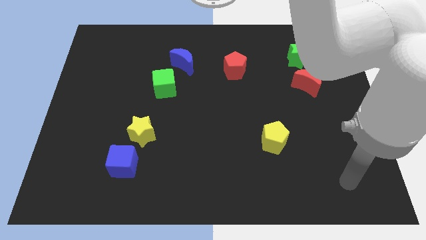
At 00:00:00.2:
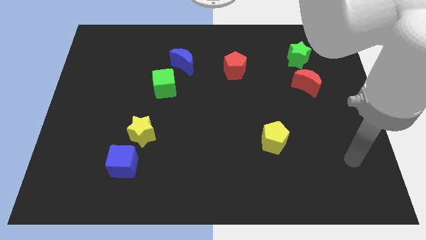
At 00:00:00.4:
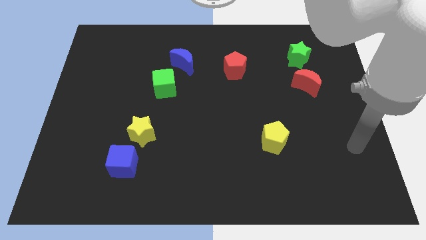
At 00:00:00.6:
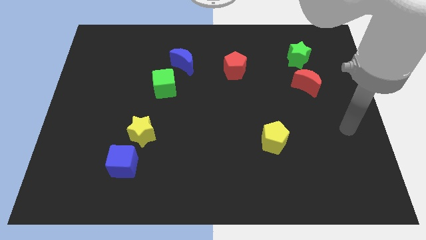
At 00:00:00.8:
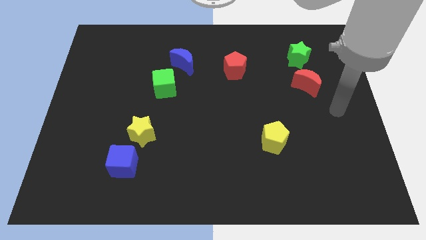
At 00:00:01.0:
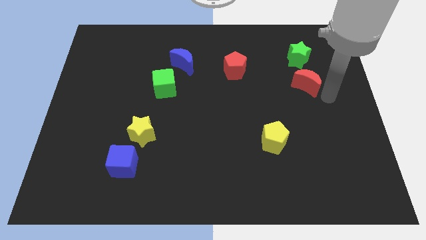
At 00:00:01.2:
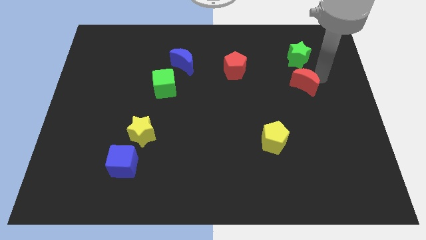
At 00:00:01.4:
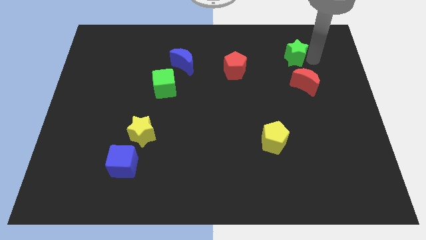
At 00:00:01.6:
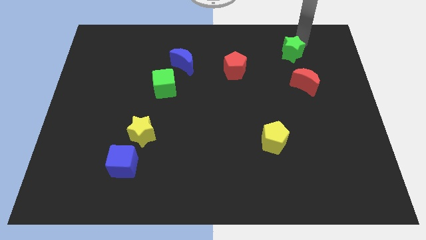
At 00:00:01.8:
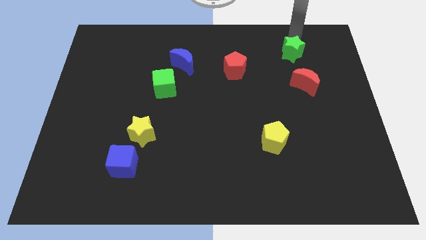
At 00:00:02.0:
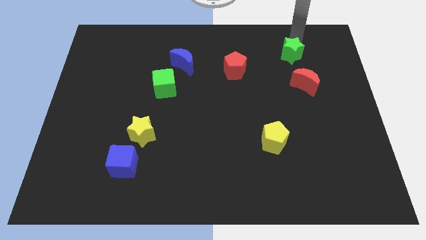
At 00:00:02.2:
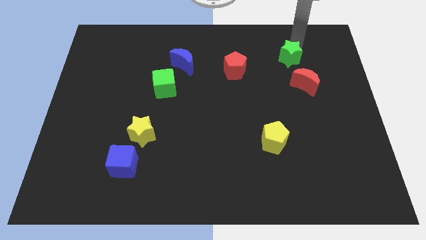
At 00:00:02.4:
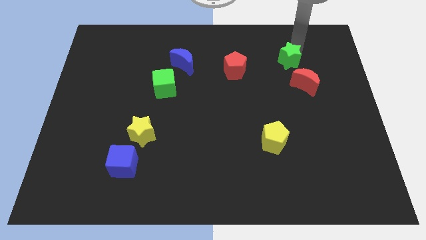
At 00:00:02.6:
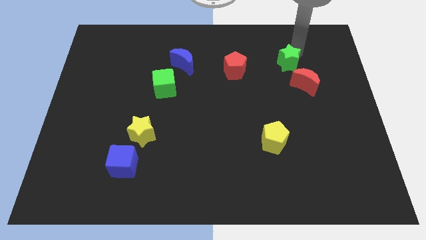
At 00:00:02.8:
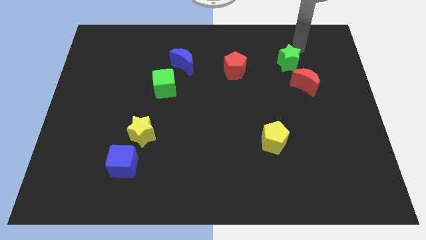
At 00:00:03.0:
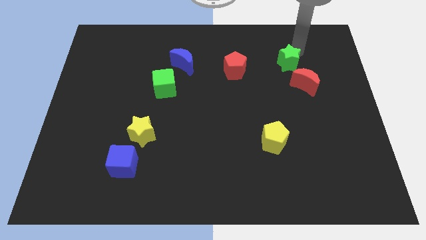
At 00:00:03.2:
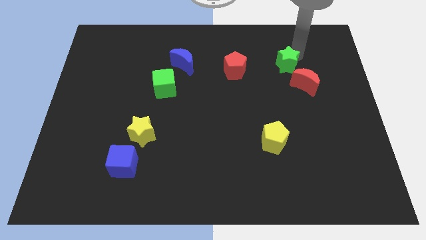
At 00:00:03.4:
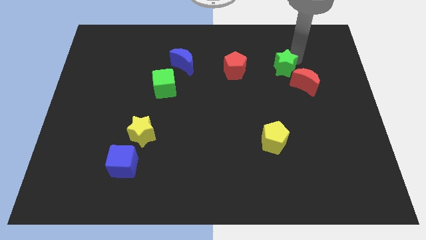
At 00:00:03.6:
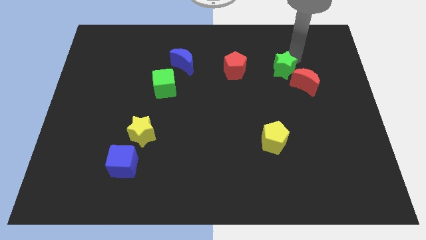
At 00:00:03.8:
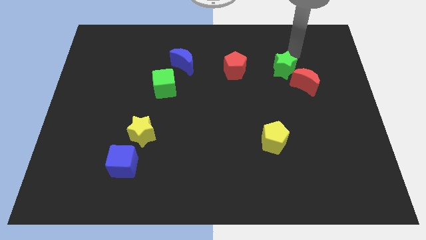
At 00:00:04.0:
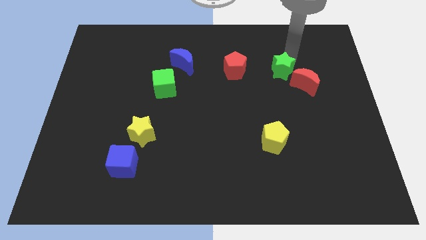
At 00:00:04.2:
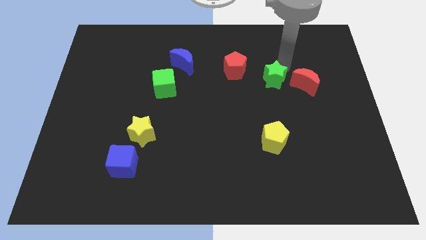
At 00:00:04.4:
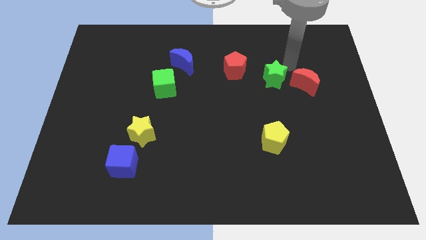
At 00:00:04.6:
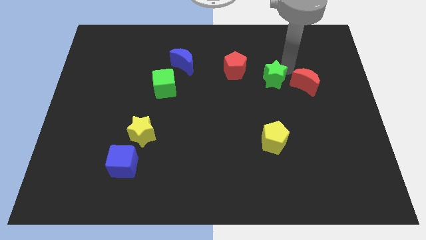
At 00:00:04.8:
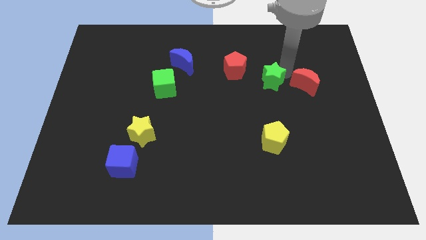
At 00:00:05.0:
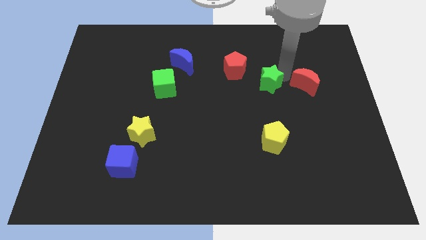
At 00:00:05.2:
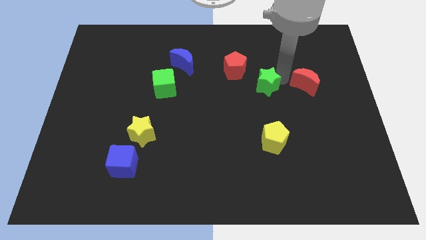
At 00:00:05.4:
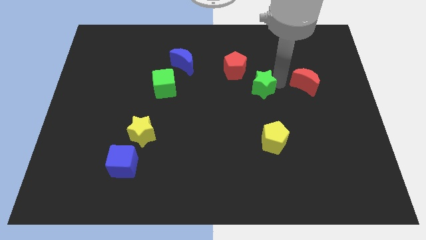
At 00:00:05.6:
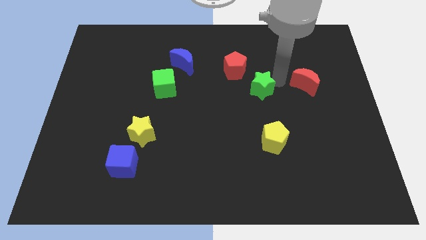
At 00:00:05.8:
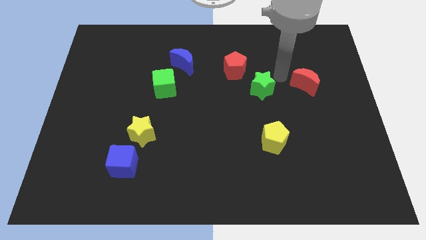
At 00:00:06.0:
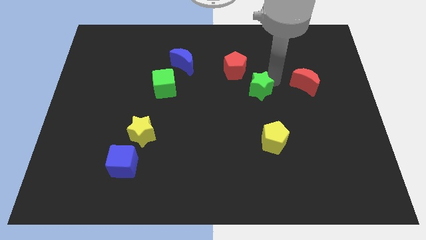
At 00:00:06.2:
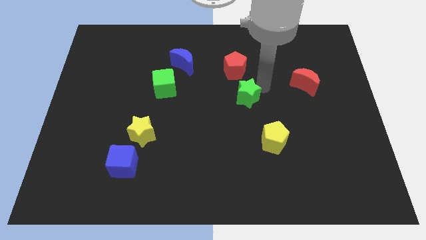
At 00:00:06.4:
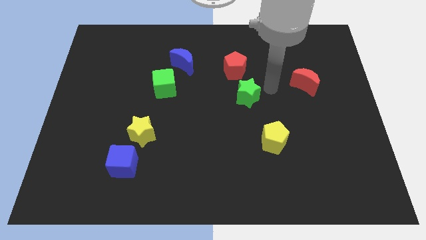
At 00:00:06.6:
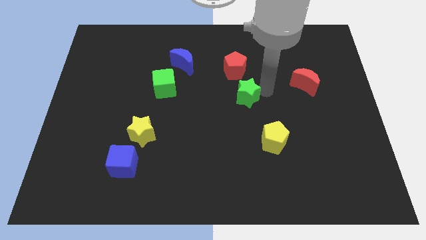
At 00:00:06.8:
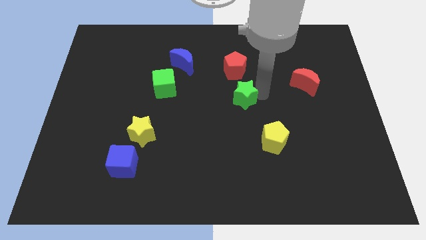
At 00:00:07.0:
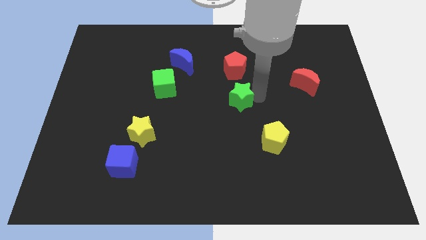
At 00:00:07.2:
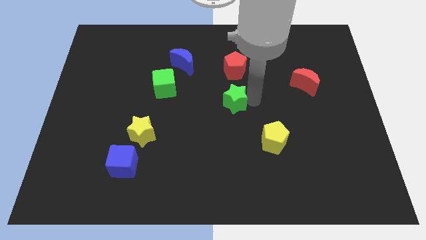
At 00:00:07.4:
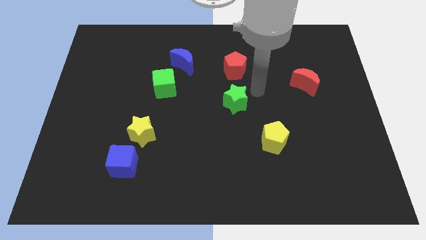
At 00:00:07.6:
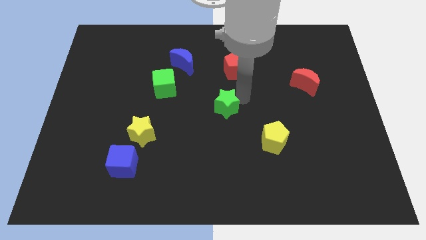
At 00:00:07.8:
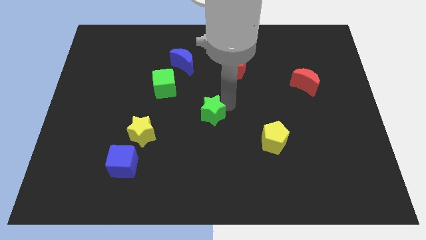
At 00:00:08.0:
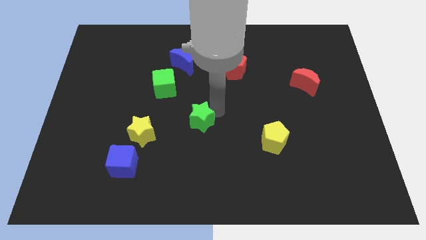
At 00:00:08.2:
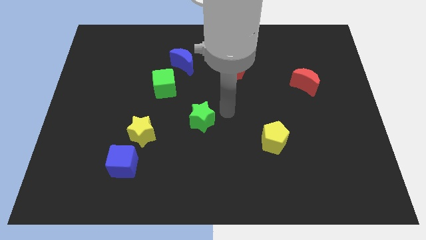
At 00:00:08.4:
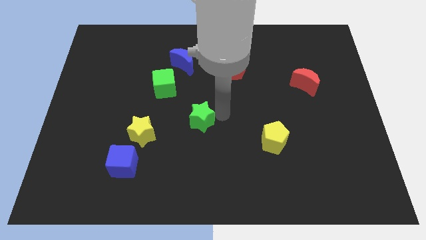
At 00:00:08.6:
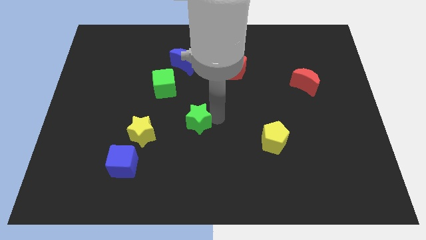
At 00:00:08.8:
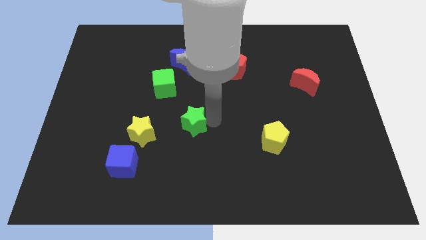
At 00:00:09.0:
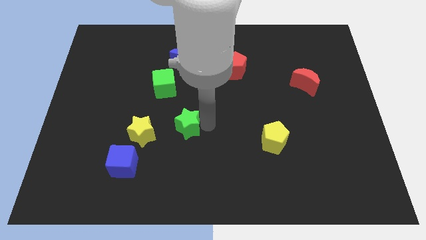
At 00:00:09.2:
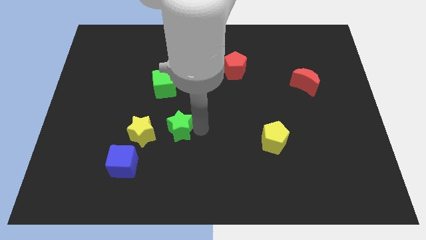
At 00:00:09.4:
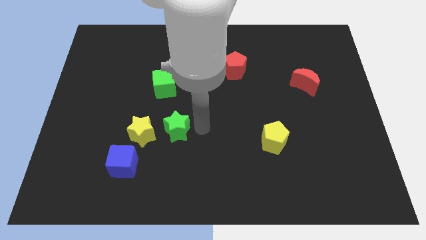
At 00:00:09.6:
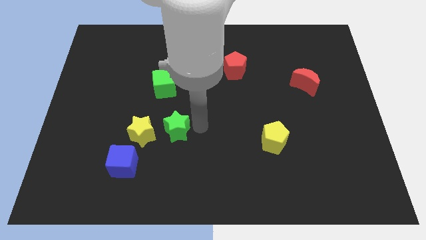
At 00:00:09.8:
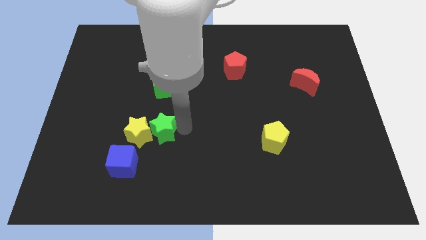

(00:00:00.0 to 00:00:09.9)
put the green star next to the yellow star

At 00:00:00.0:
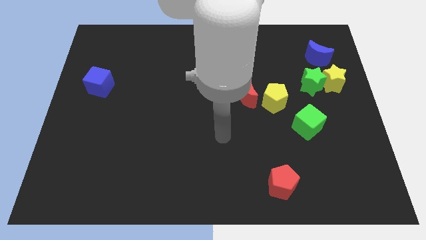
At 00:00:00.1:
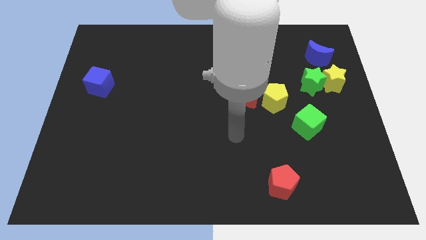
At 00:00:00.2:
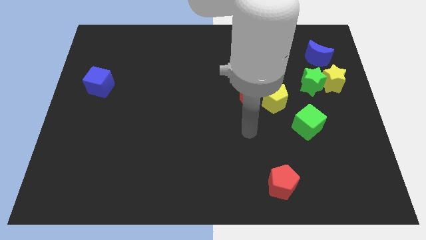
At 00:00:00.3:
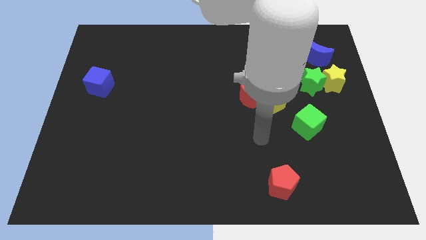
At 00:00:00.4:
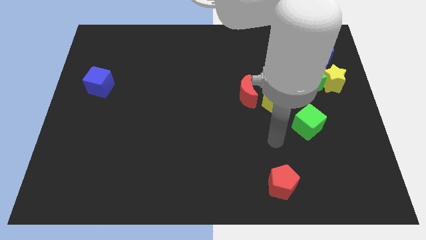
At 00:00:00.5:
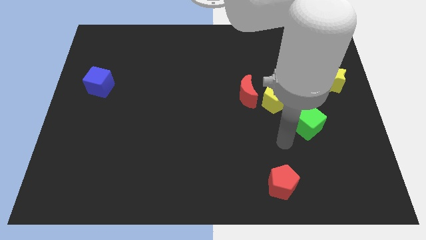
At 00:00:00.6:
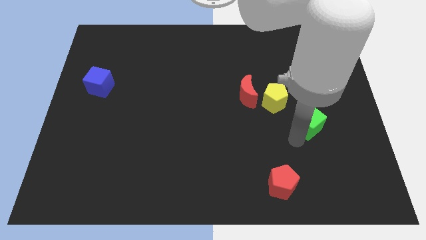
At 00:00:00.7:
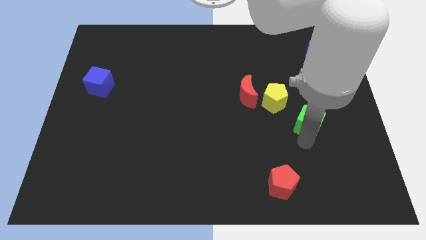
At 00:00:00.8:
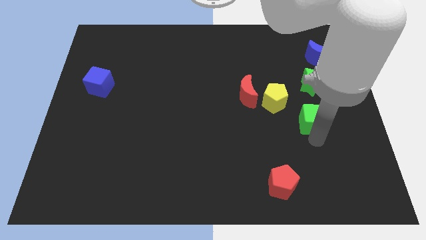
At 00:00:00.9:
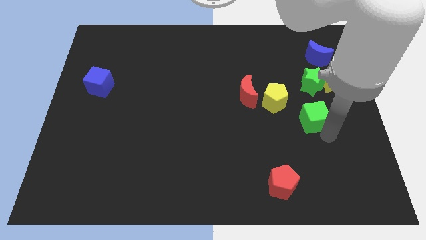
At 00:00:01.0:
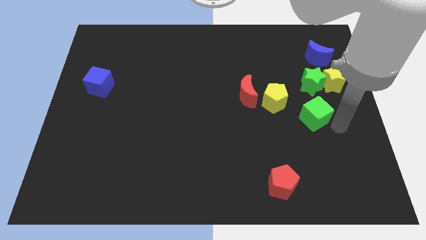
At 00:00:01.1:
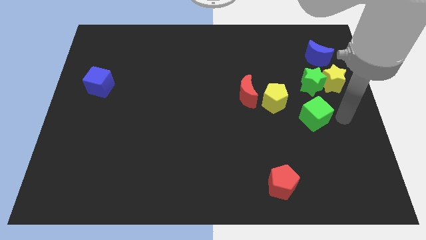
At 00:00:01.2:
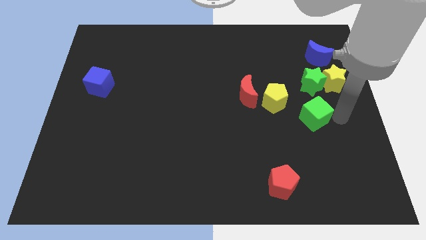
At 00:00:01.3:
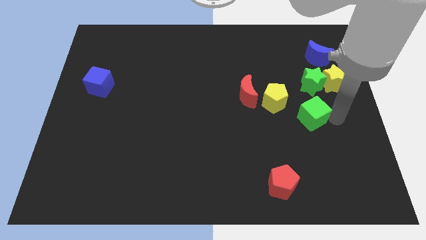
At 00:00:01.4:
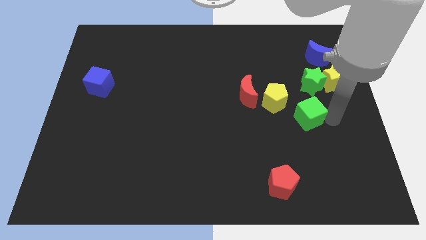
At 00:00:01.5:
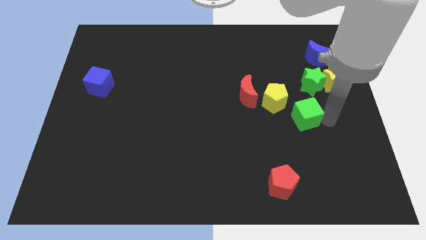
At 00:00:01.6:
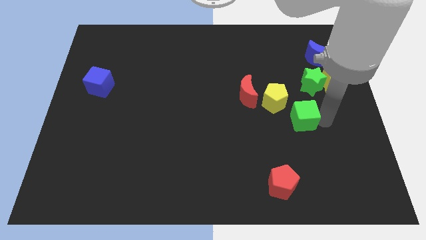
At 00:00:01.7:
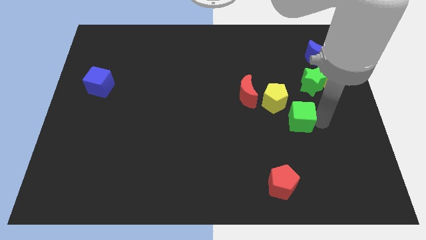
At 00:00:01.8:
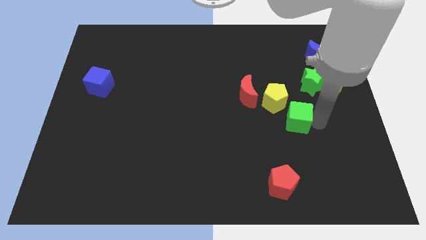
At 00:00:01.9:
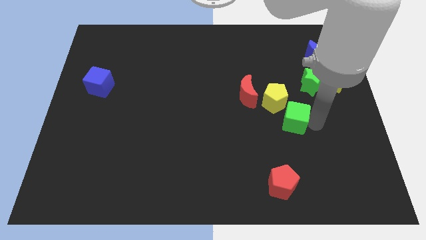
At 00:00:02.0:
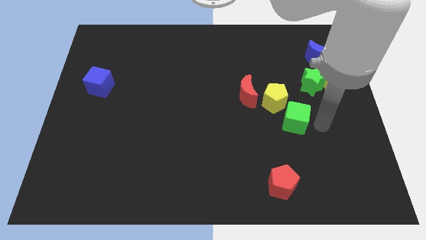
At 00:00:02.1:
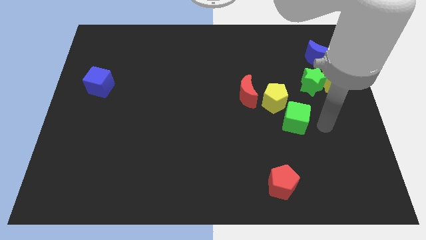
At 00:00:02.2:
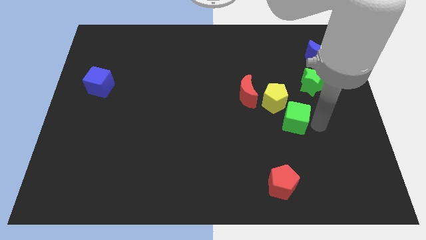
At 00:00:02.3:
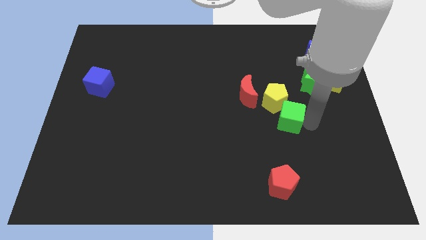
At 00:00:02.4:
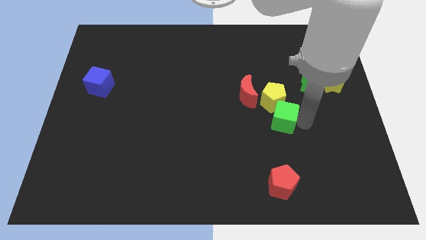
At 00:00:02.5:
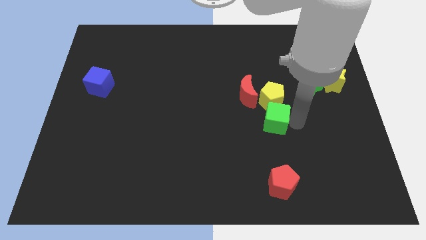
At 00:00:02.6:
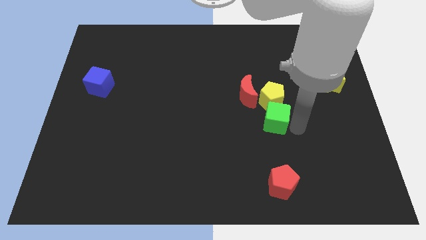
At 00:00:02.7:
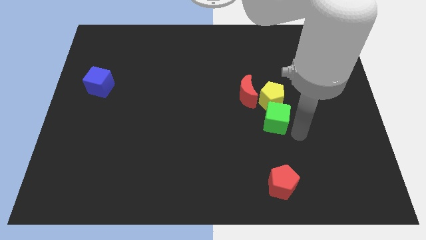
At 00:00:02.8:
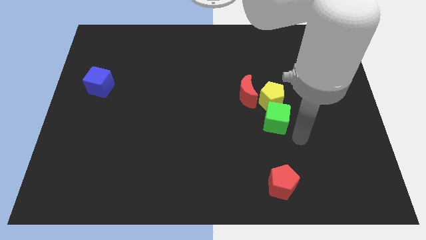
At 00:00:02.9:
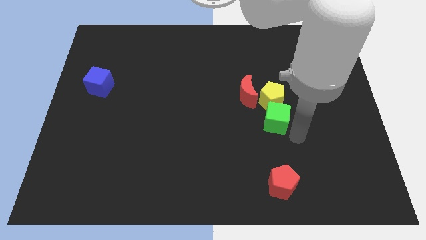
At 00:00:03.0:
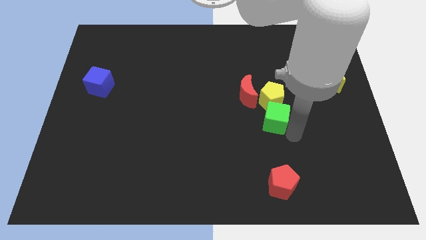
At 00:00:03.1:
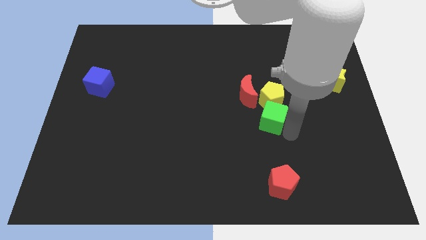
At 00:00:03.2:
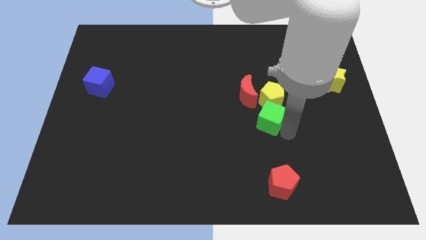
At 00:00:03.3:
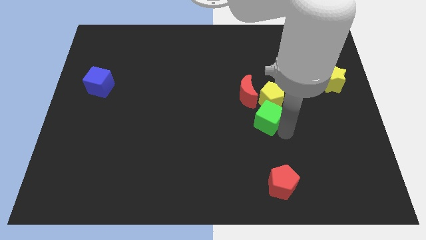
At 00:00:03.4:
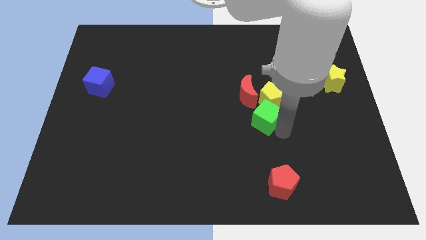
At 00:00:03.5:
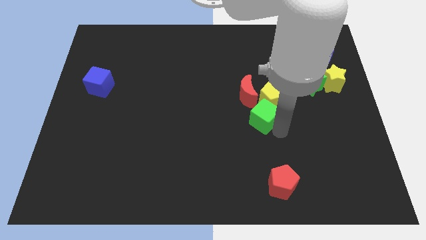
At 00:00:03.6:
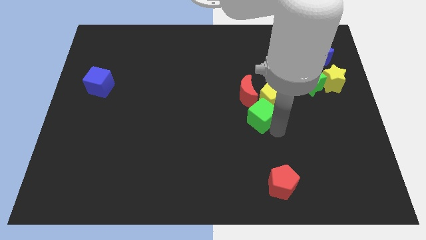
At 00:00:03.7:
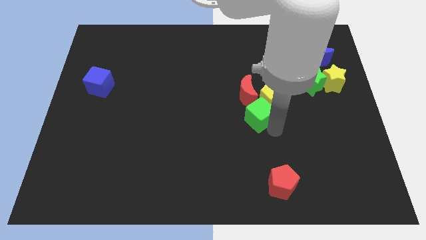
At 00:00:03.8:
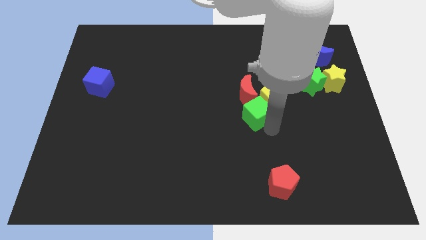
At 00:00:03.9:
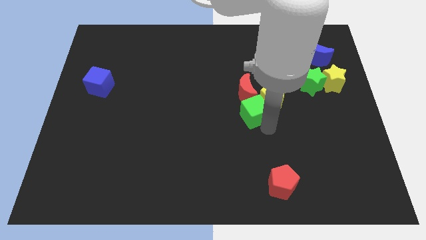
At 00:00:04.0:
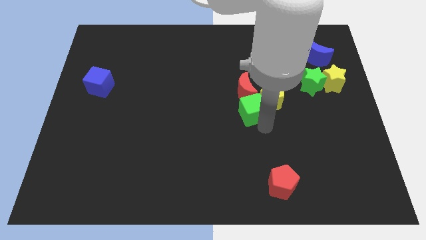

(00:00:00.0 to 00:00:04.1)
put the green cube to the red moon
